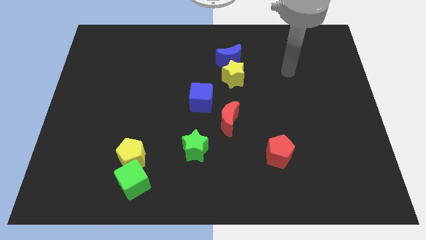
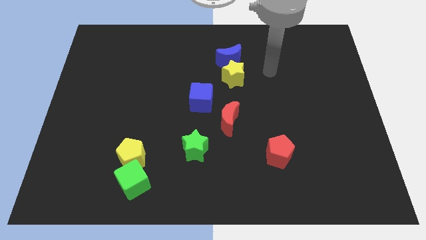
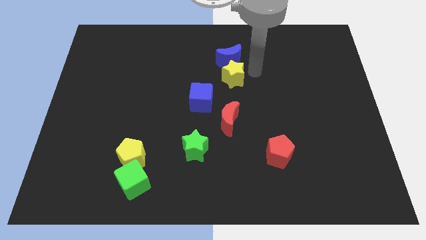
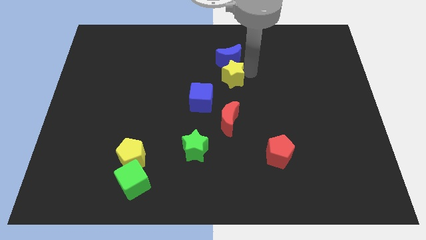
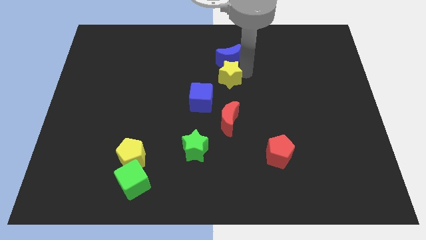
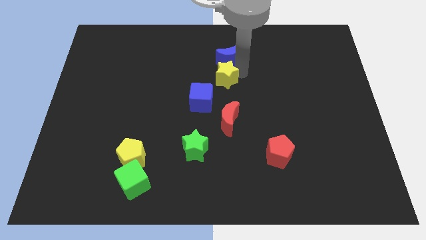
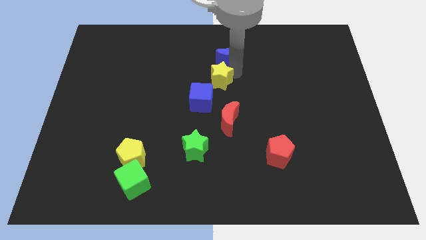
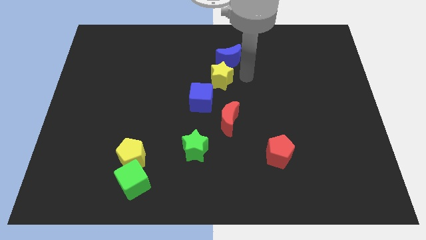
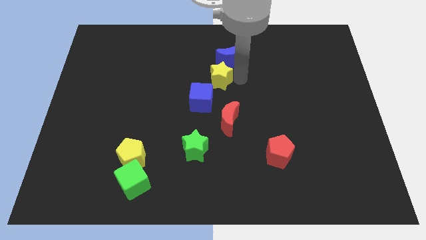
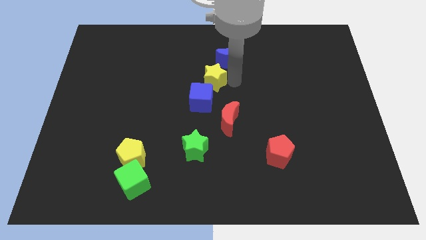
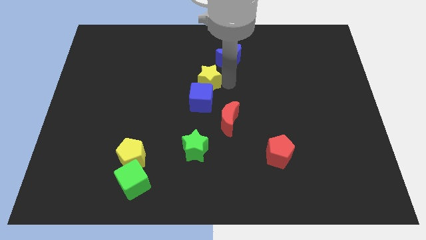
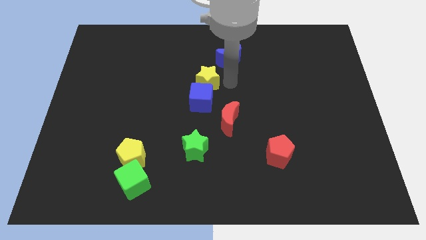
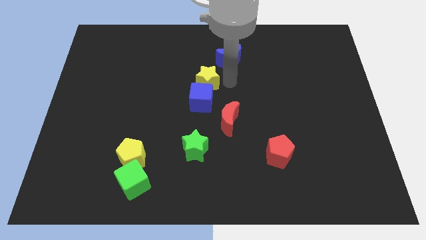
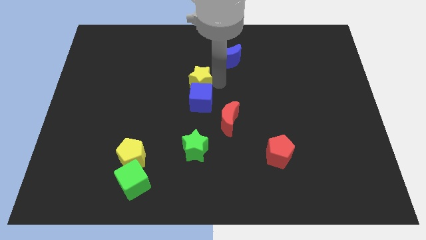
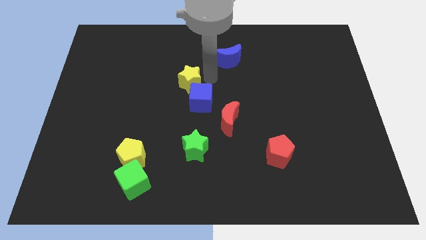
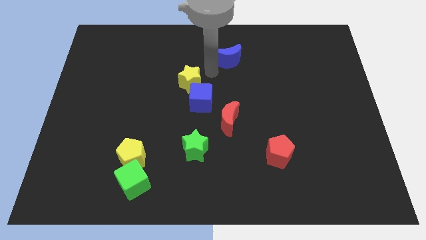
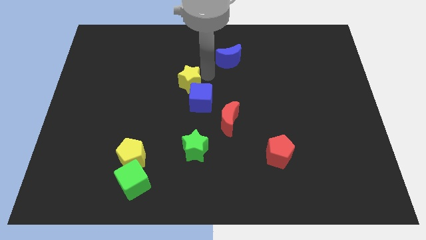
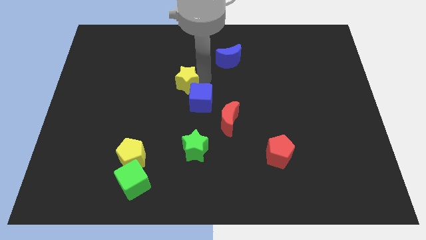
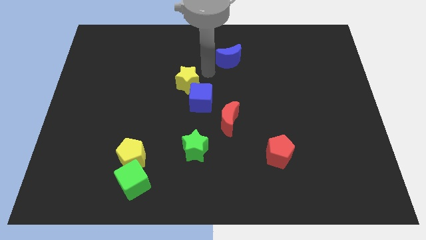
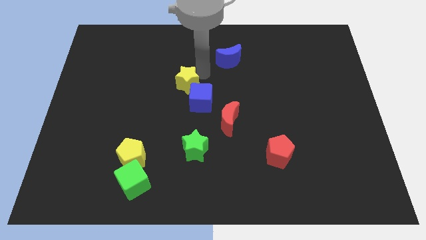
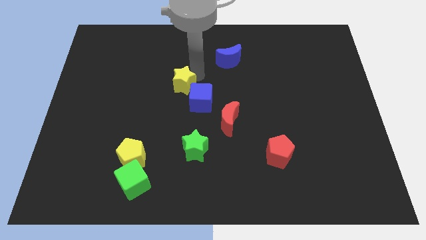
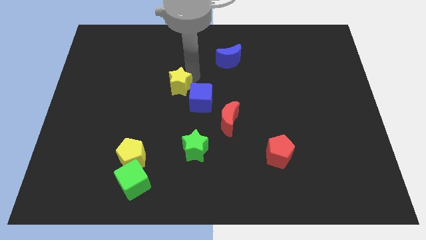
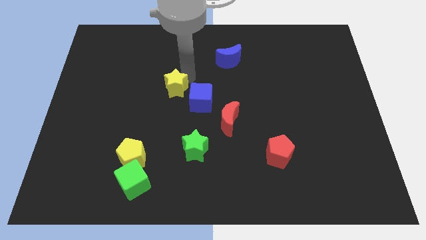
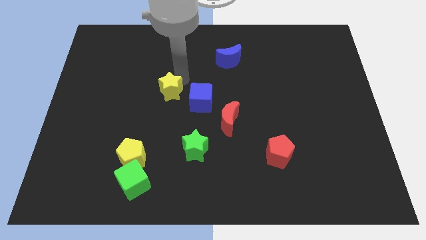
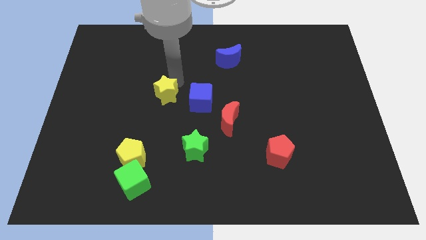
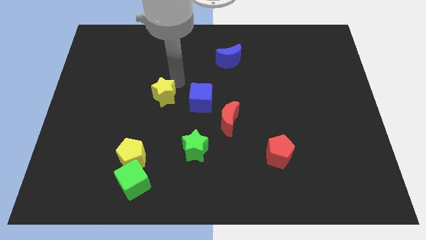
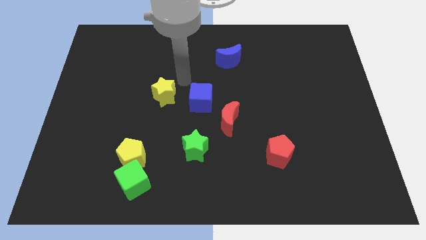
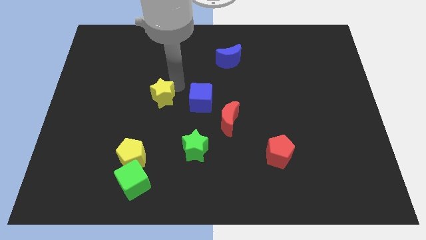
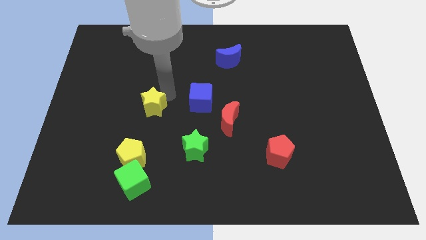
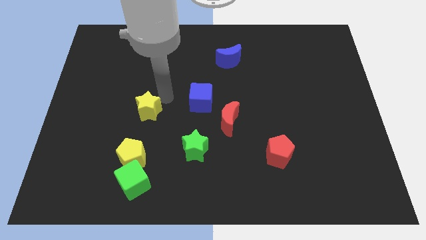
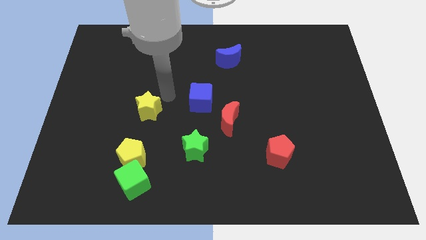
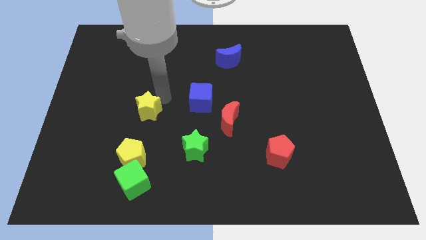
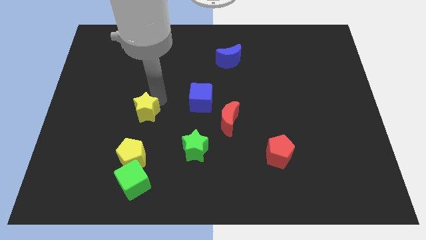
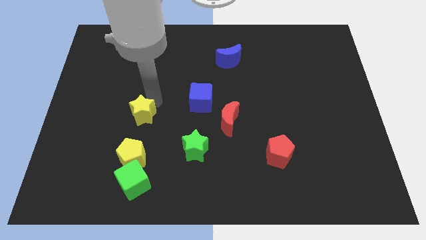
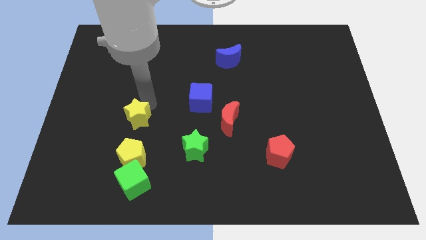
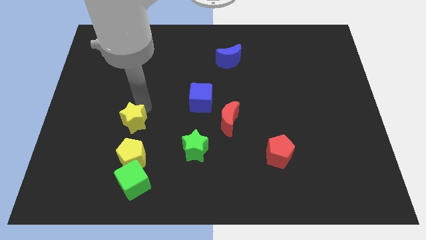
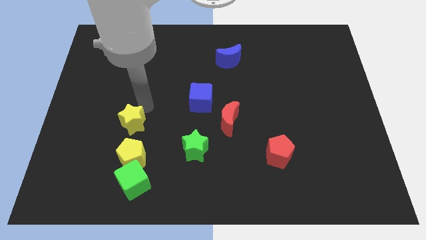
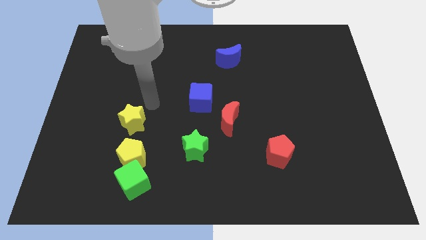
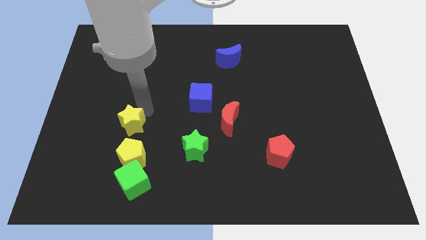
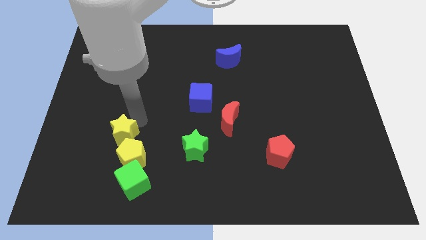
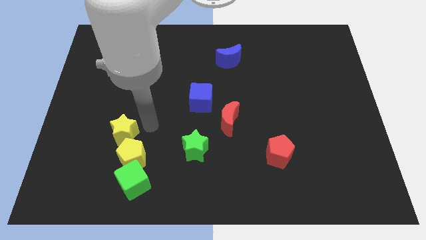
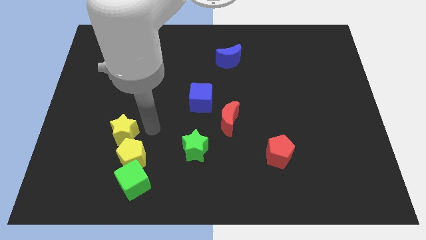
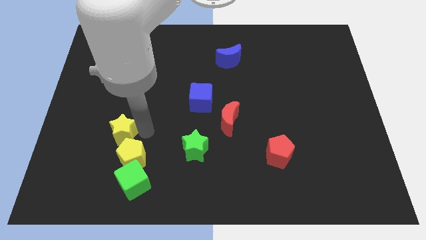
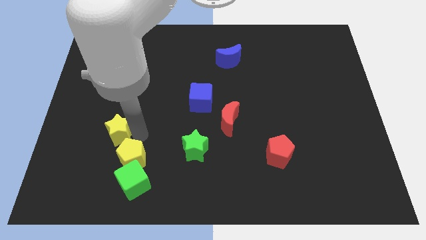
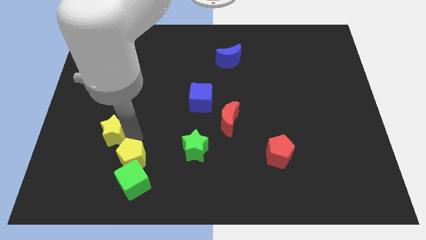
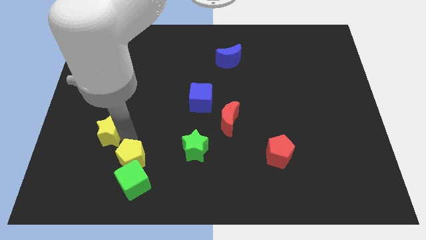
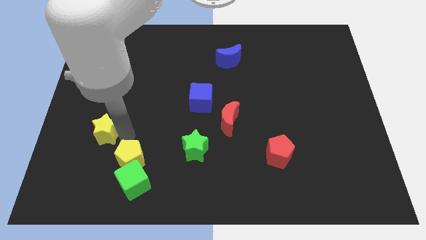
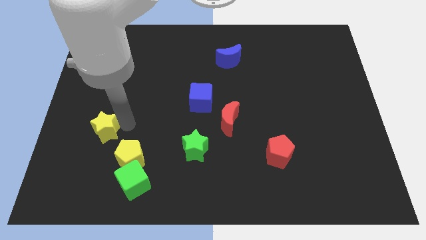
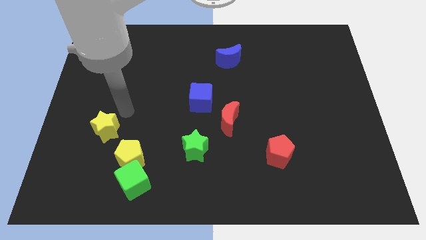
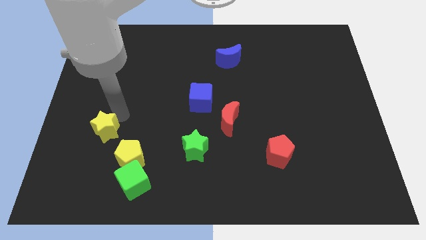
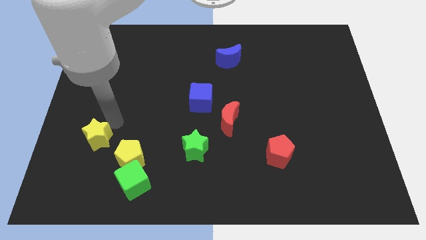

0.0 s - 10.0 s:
push the yellow star to the left of the yellow pentagon

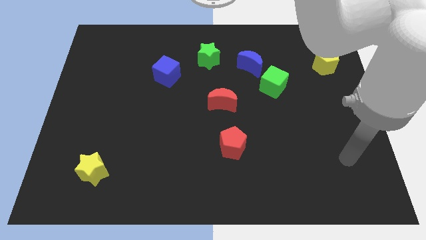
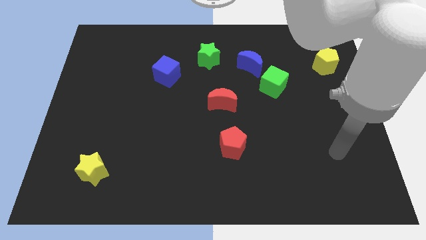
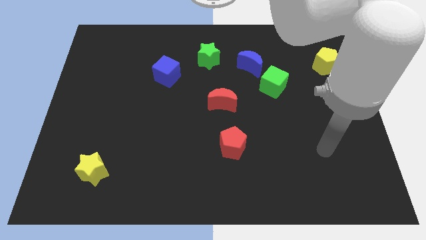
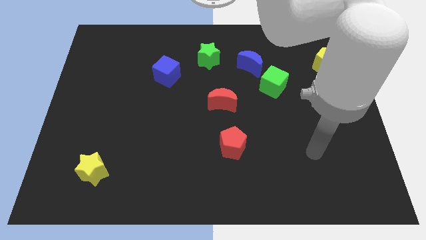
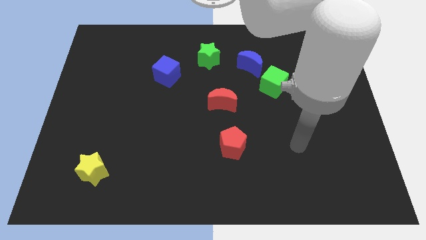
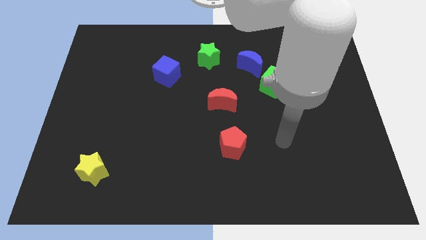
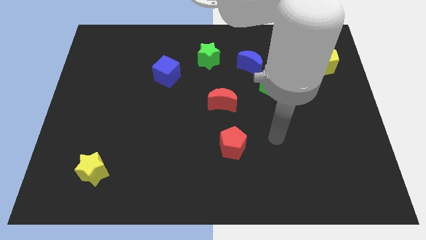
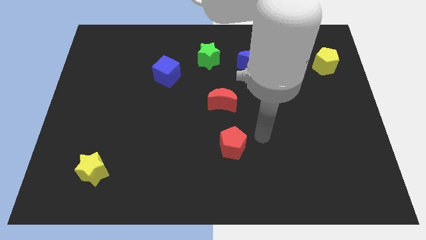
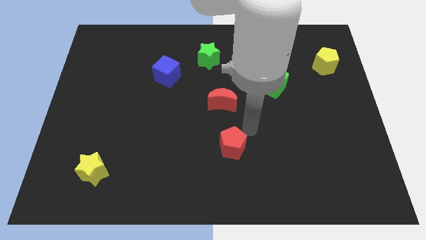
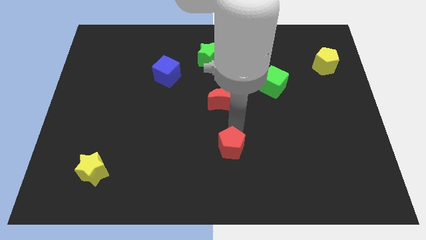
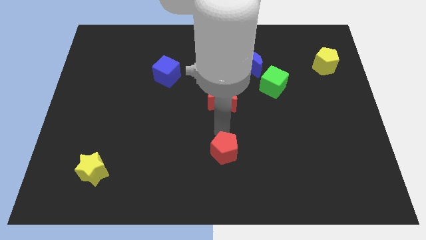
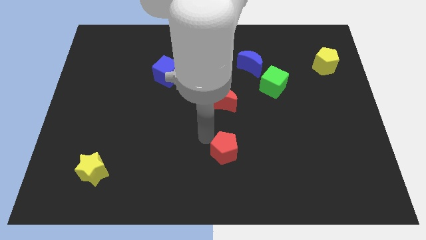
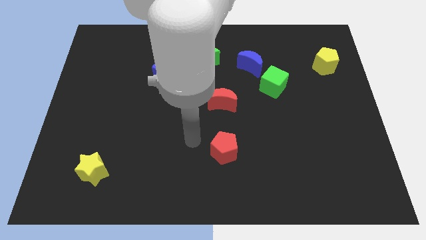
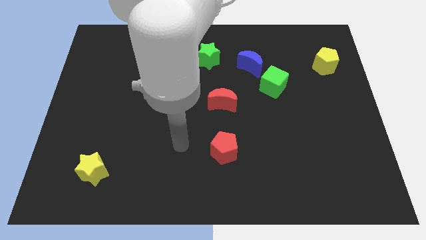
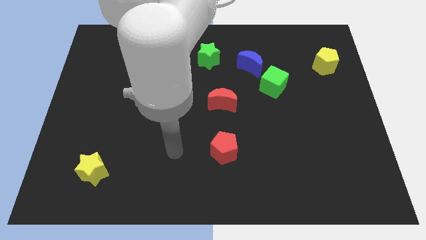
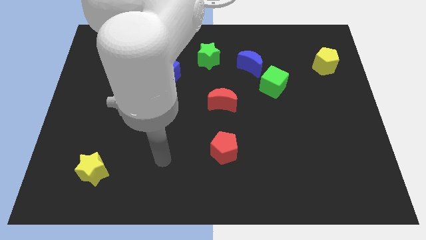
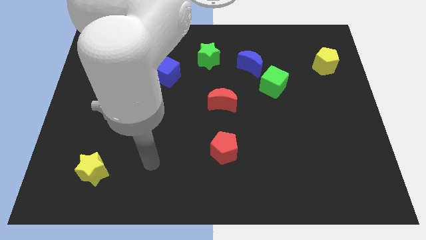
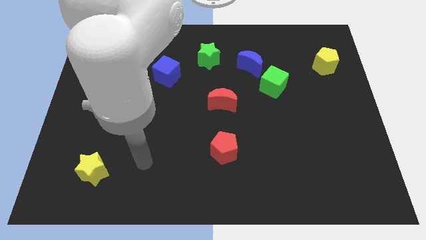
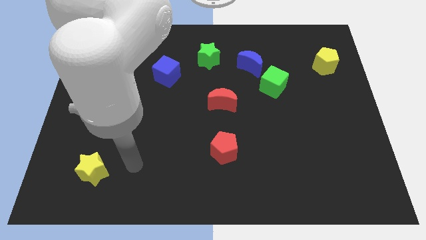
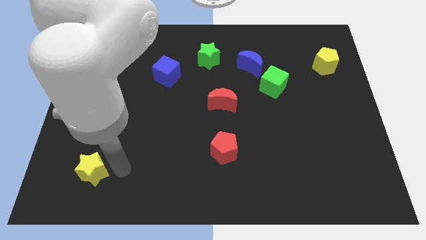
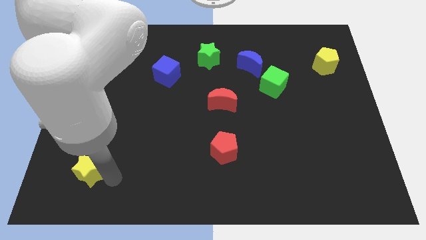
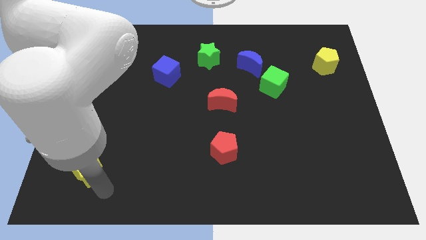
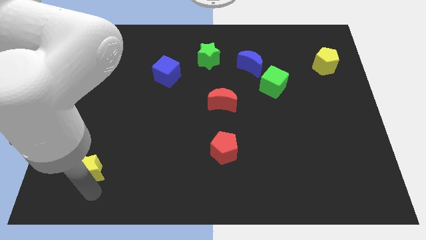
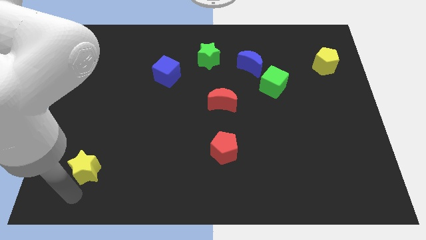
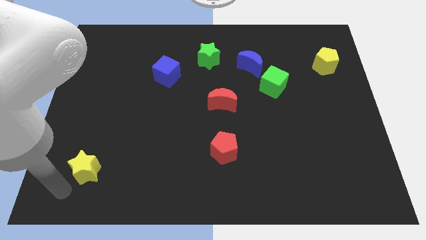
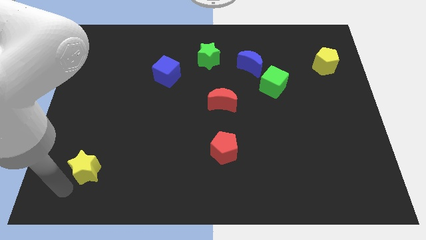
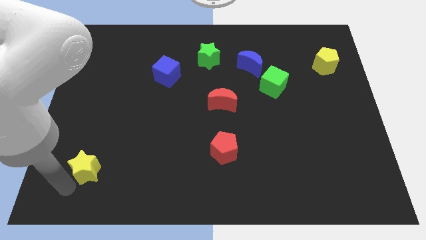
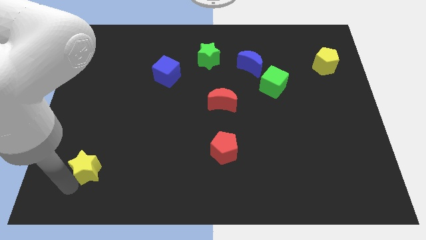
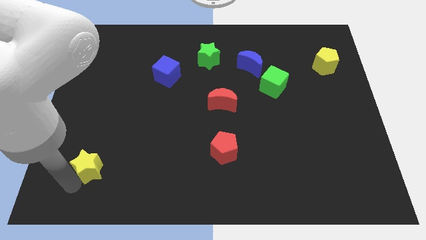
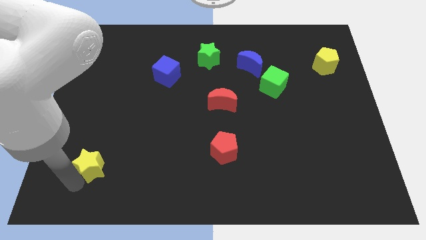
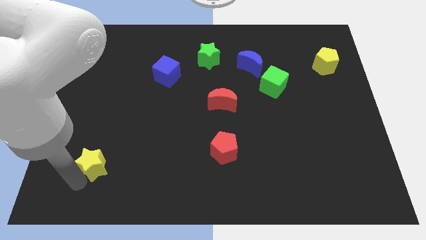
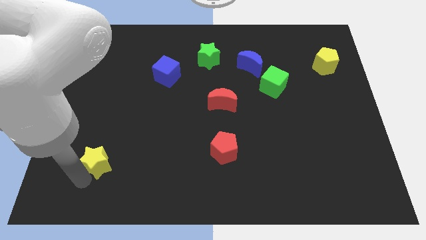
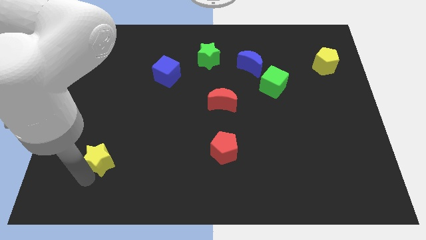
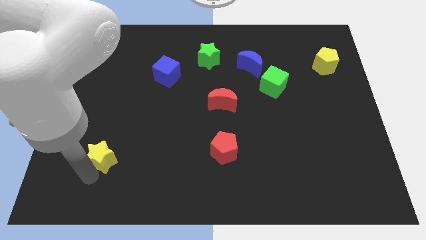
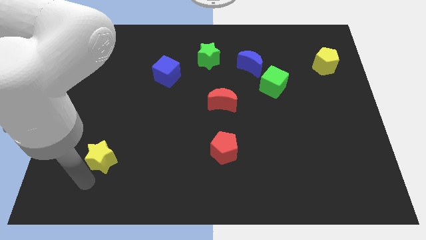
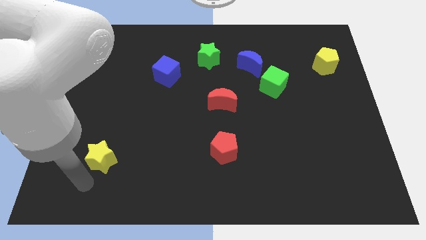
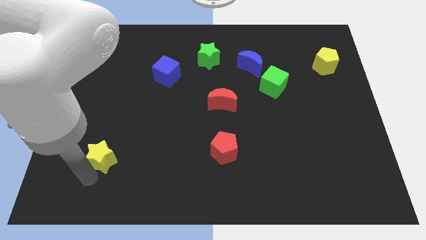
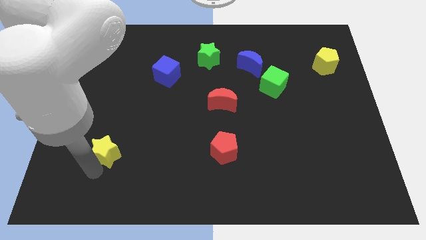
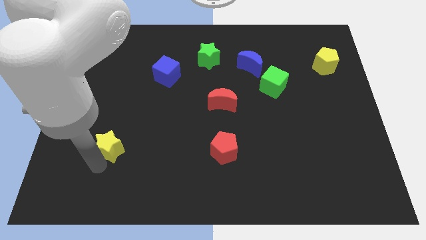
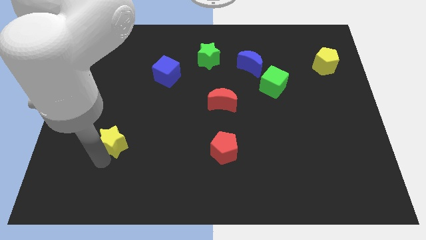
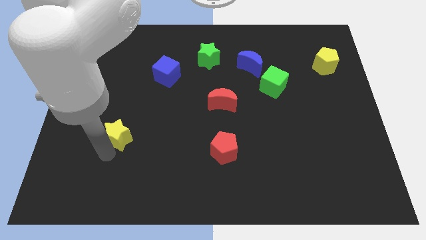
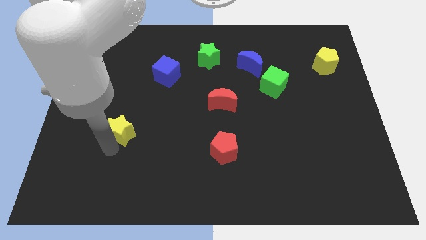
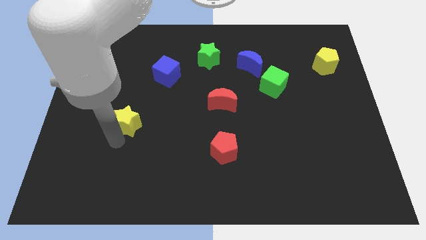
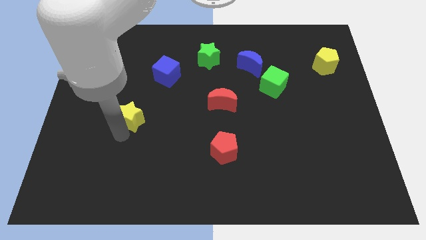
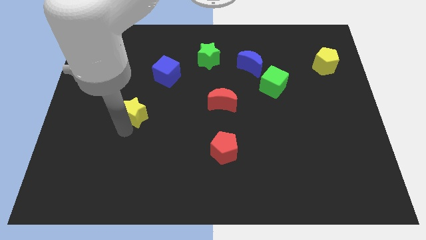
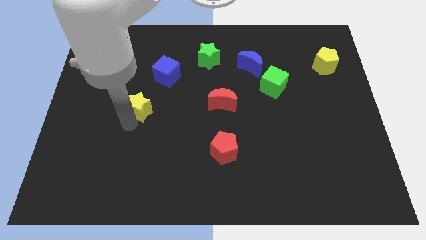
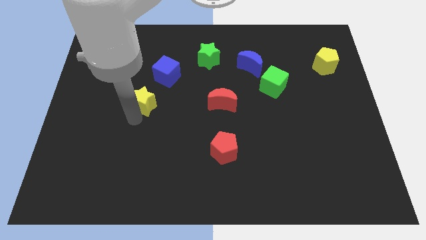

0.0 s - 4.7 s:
push the yellow star diagonally down and to the left of the blue cube
